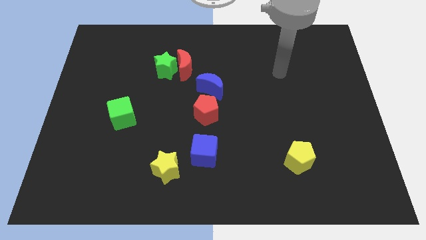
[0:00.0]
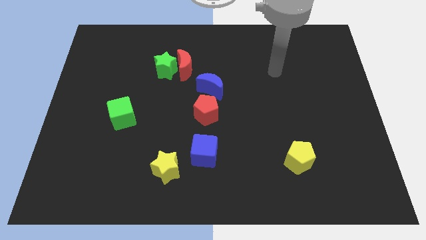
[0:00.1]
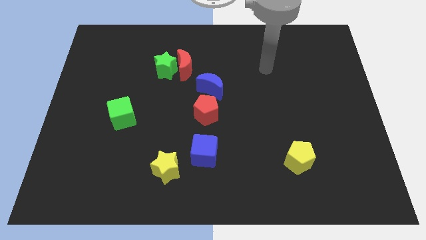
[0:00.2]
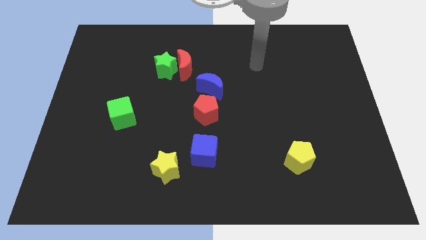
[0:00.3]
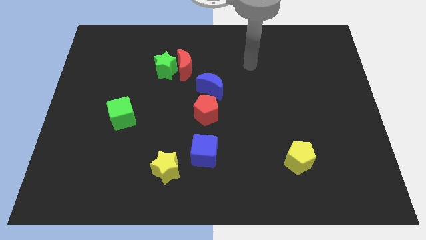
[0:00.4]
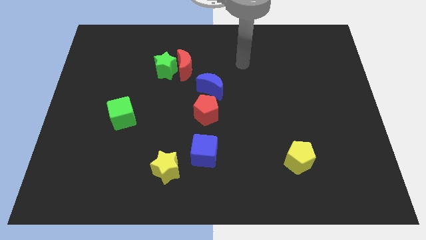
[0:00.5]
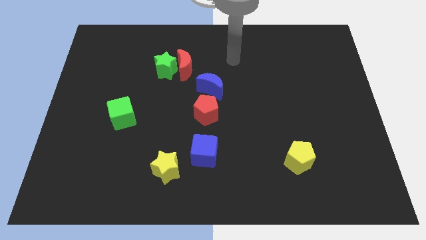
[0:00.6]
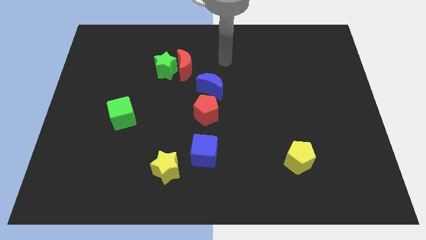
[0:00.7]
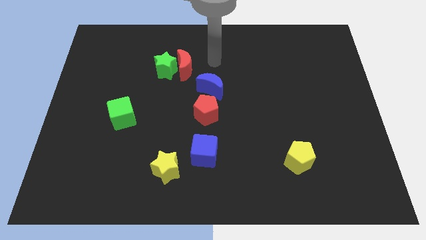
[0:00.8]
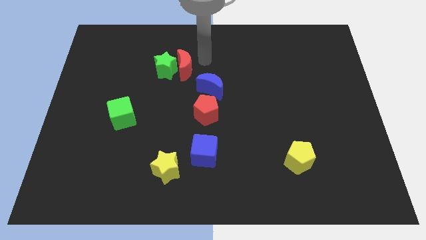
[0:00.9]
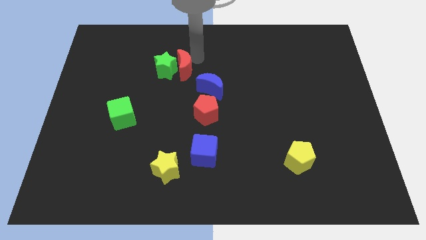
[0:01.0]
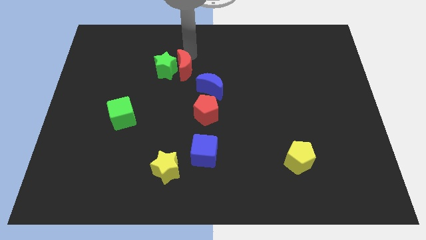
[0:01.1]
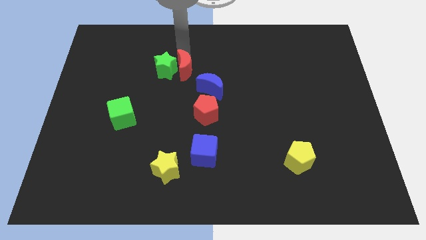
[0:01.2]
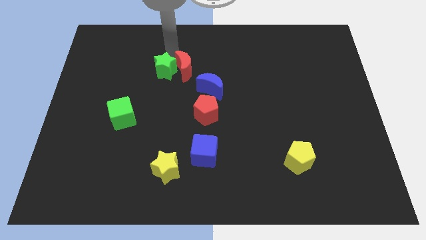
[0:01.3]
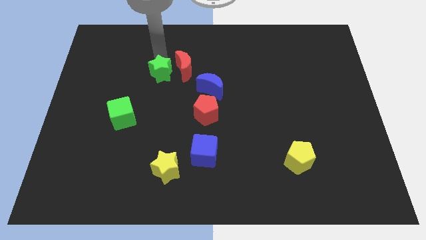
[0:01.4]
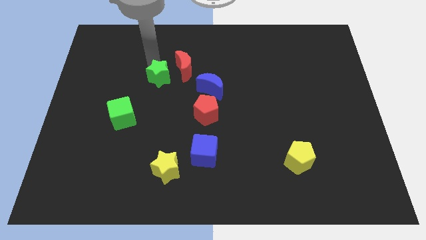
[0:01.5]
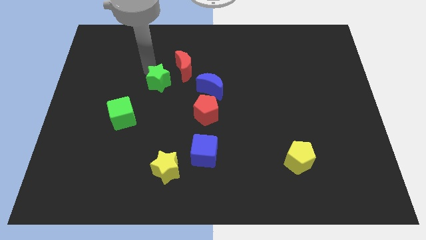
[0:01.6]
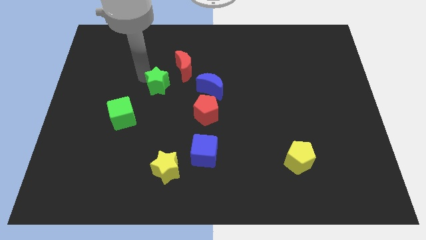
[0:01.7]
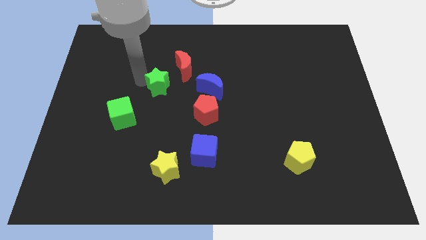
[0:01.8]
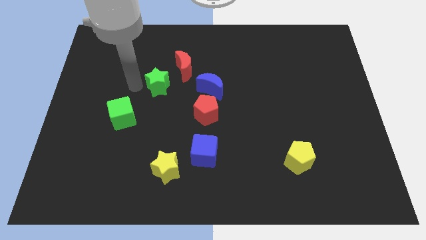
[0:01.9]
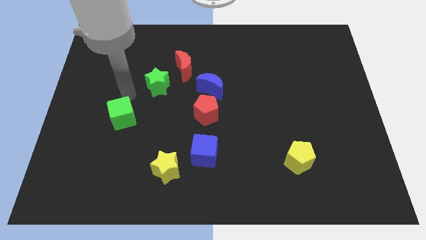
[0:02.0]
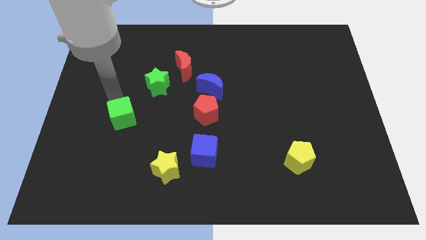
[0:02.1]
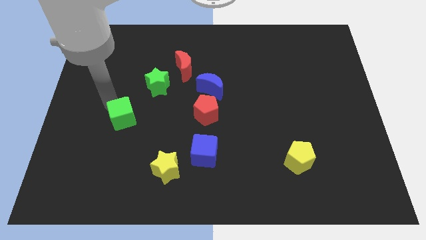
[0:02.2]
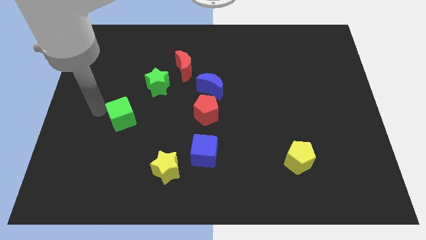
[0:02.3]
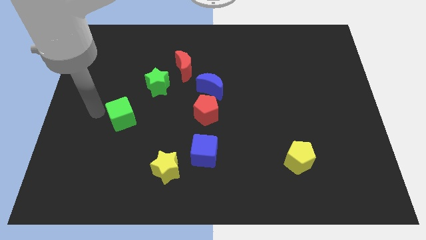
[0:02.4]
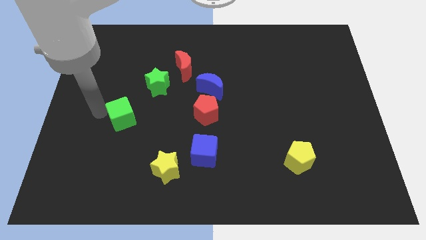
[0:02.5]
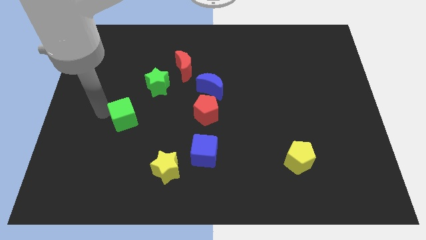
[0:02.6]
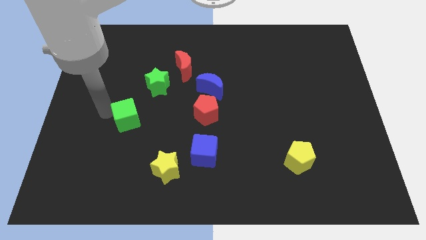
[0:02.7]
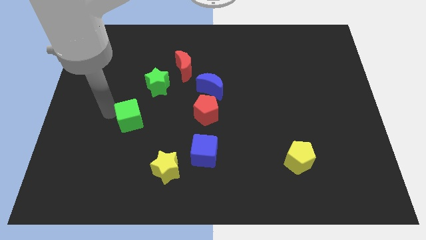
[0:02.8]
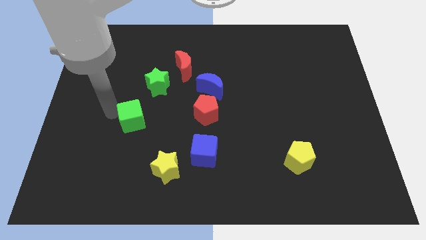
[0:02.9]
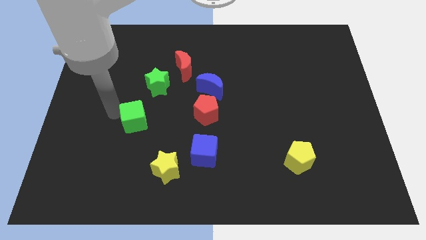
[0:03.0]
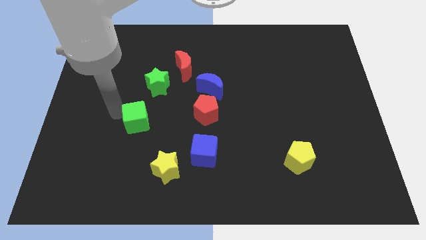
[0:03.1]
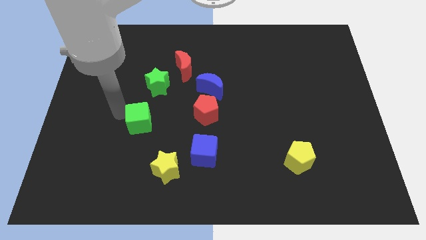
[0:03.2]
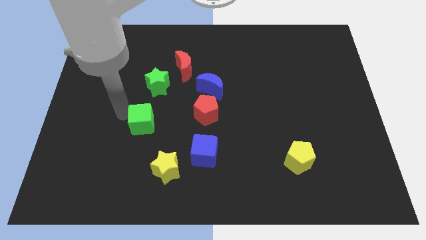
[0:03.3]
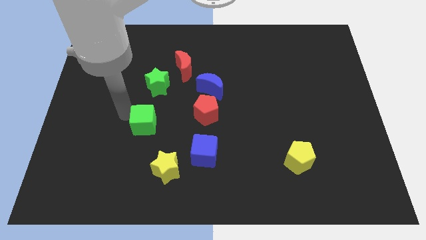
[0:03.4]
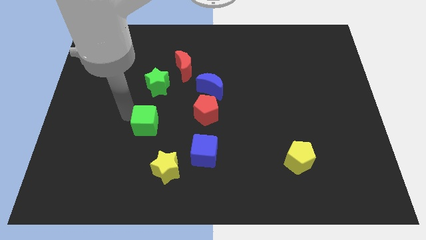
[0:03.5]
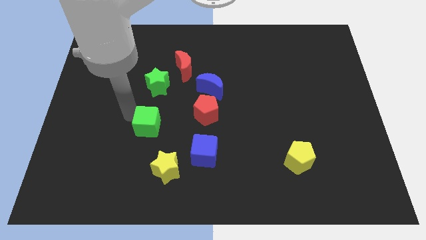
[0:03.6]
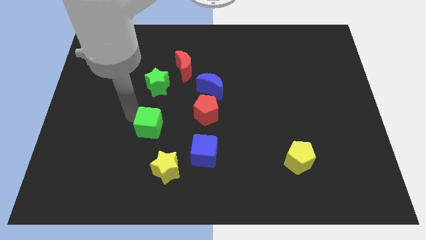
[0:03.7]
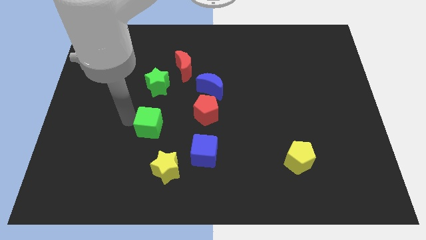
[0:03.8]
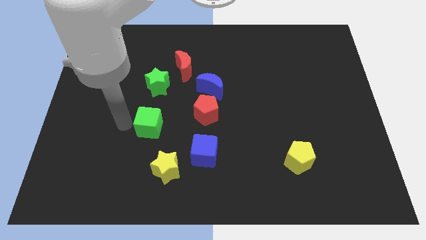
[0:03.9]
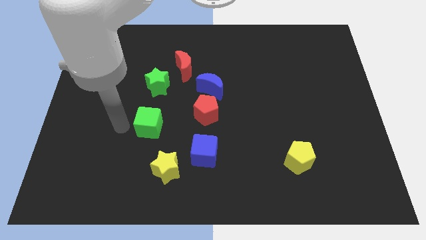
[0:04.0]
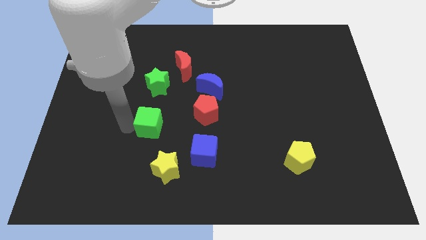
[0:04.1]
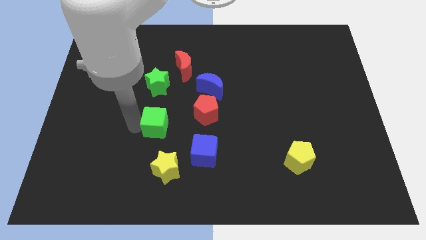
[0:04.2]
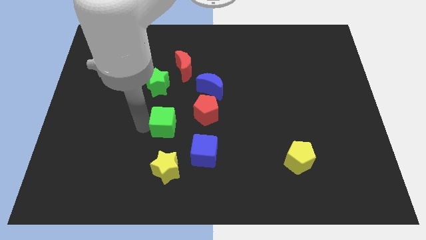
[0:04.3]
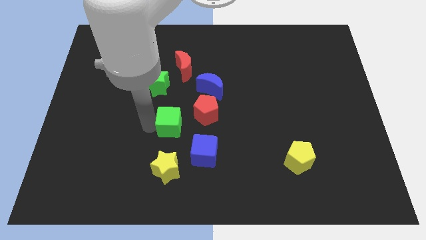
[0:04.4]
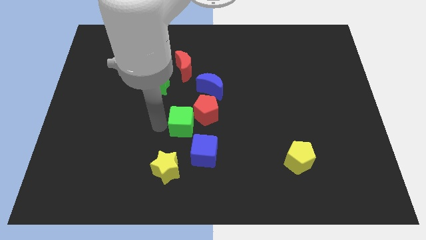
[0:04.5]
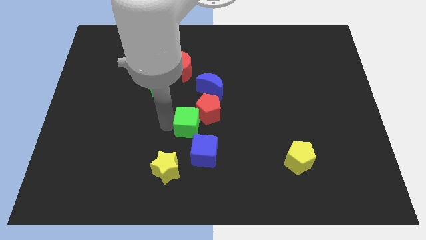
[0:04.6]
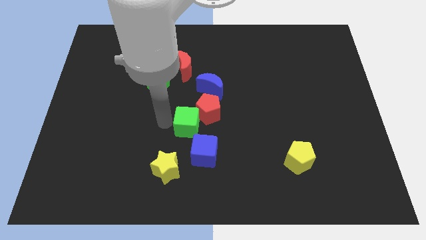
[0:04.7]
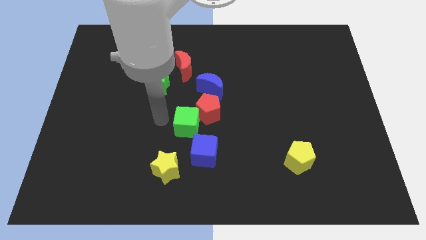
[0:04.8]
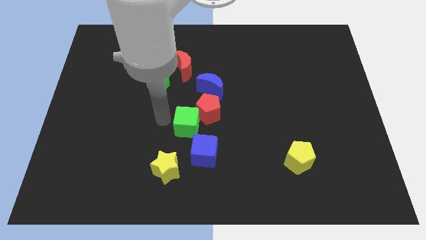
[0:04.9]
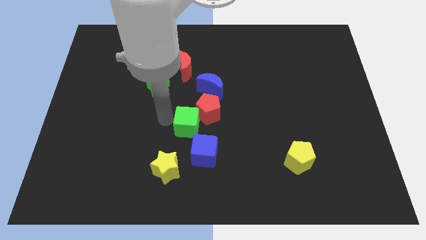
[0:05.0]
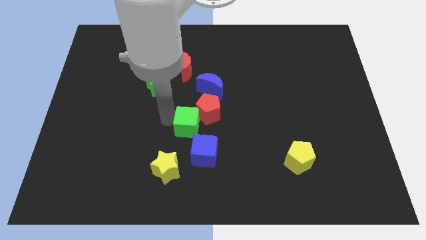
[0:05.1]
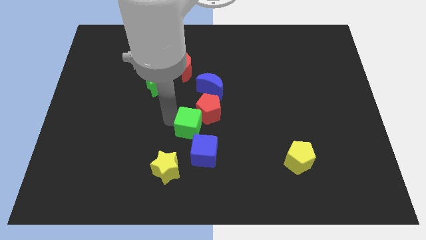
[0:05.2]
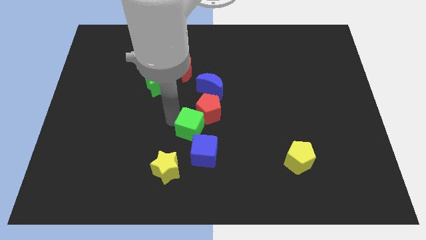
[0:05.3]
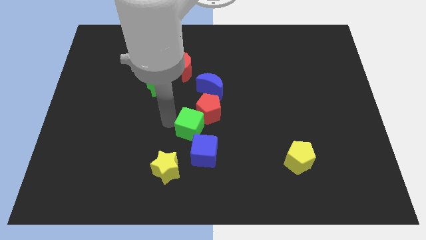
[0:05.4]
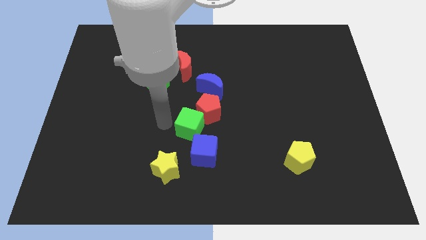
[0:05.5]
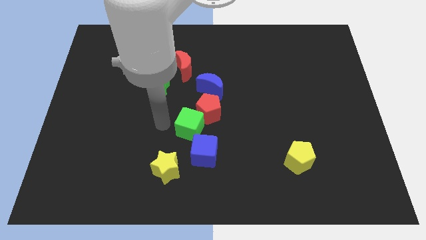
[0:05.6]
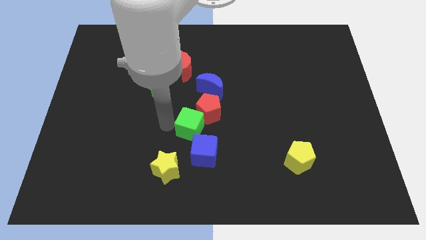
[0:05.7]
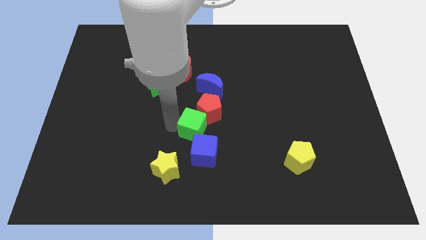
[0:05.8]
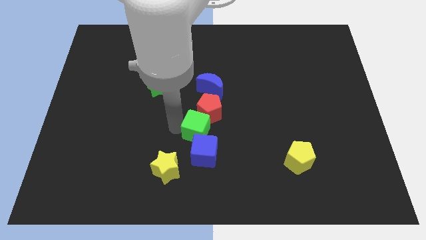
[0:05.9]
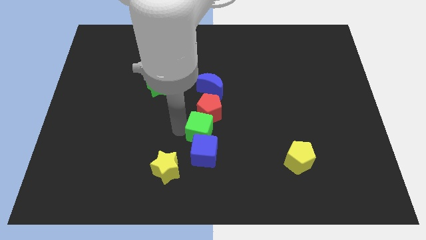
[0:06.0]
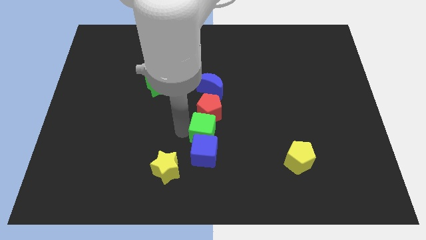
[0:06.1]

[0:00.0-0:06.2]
slide the green cube diagonally down and to the right of the red pentagon
